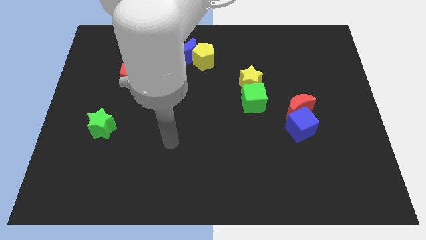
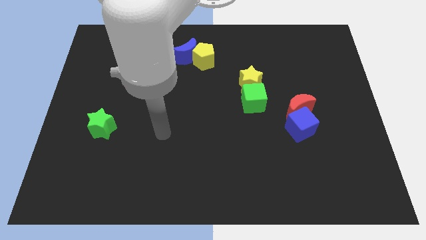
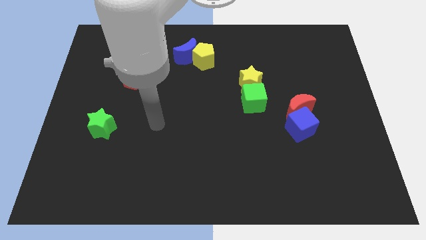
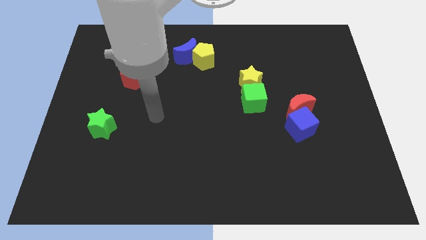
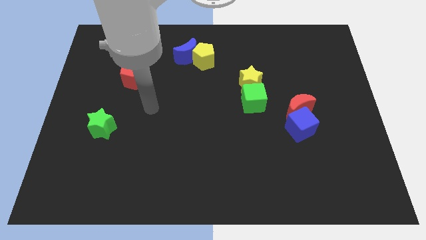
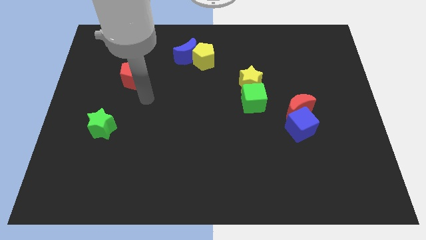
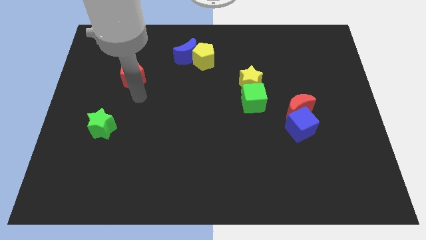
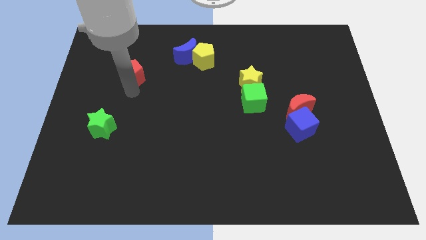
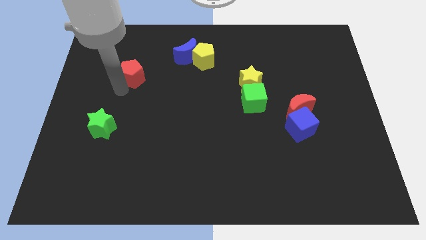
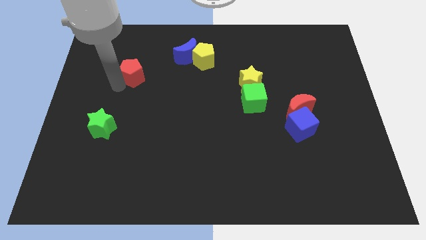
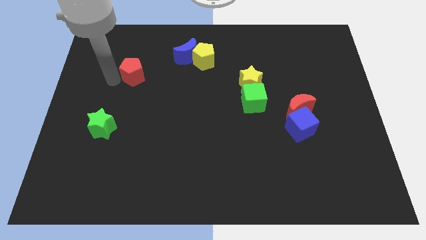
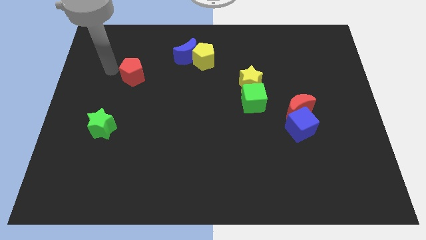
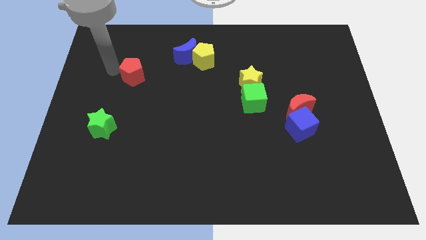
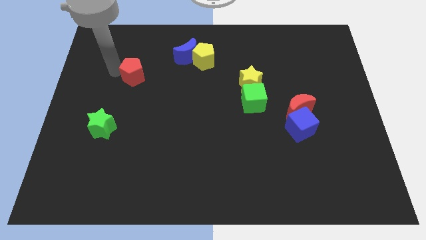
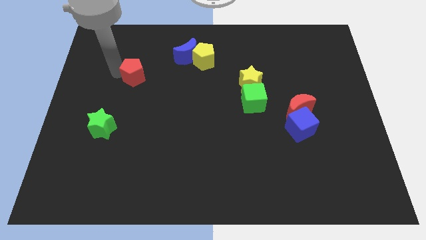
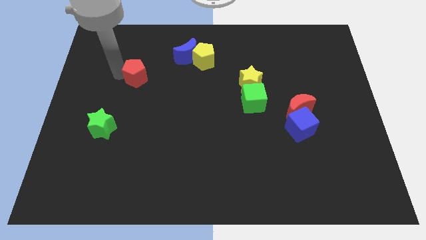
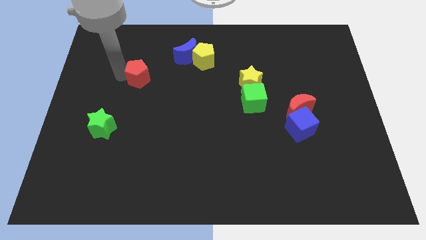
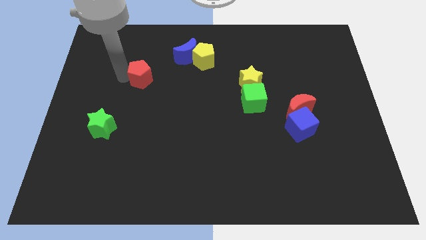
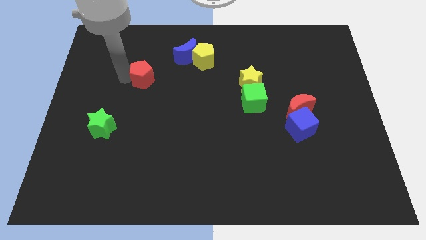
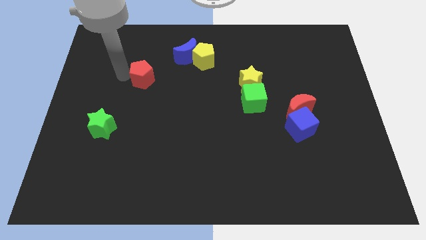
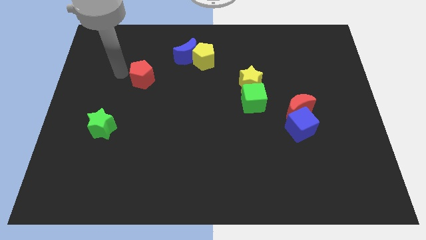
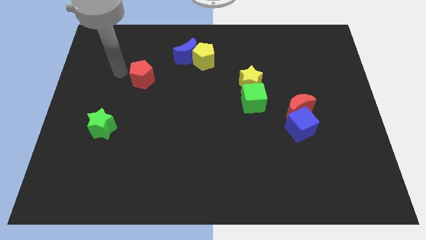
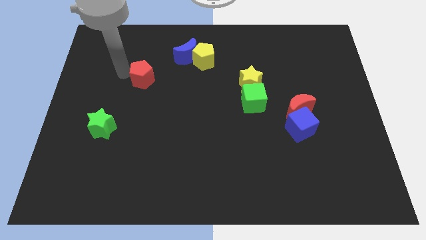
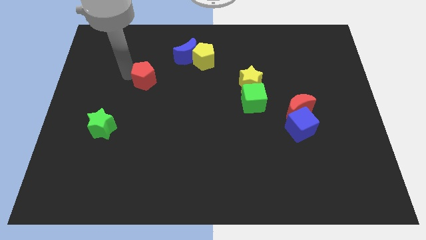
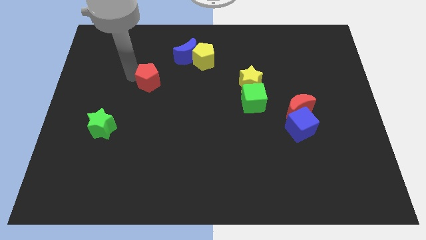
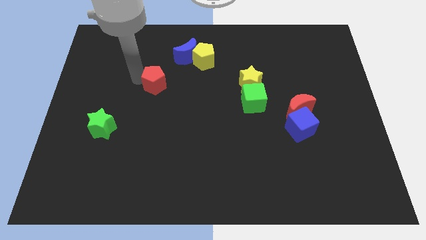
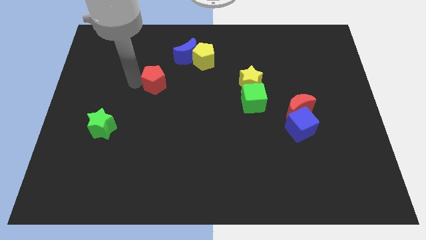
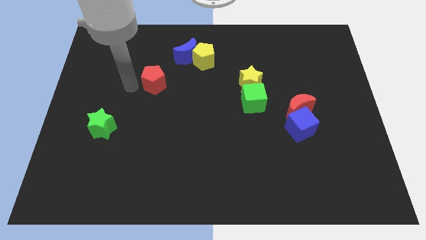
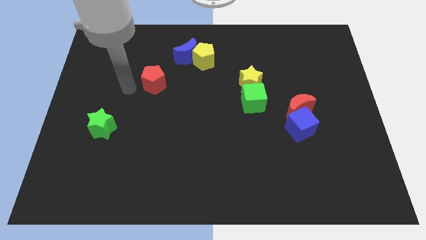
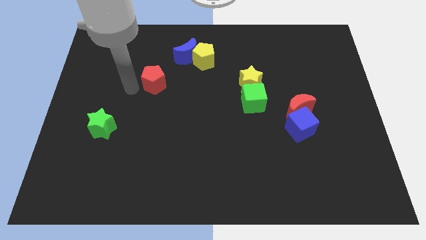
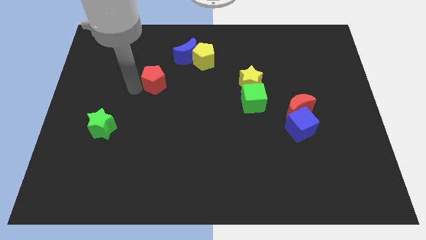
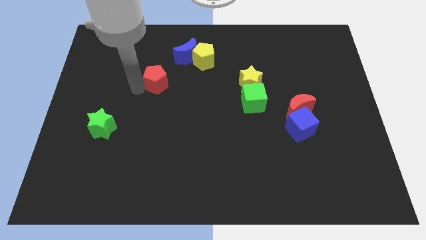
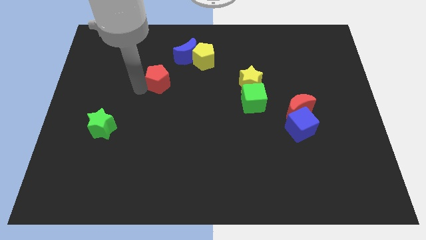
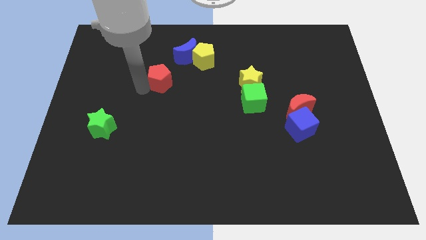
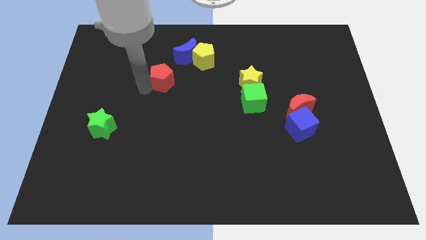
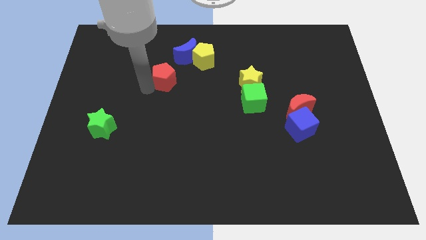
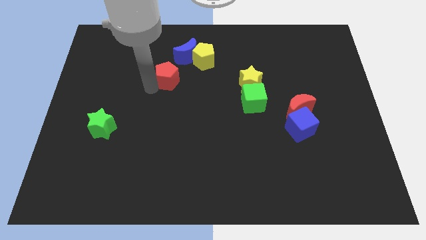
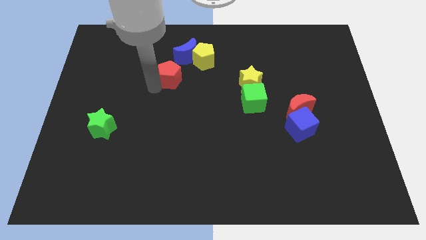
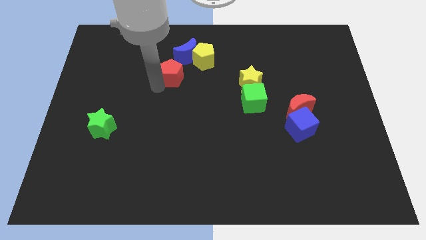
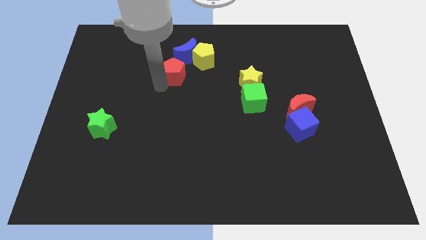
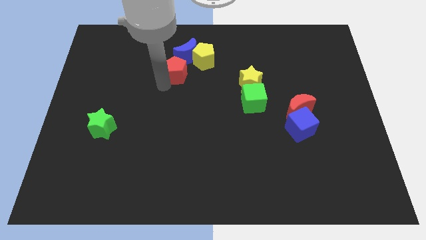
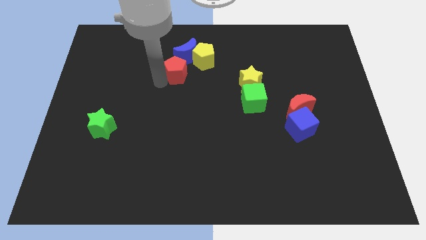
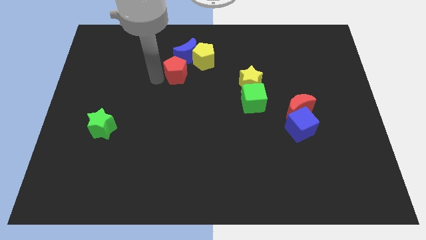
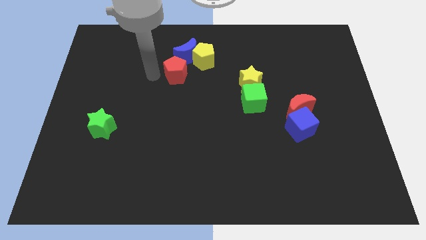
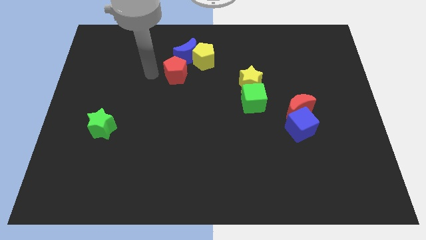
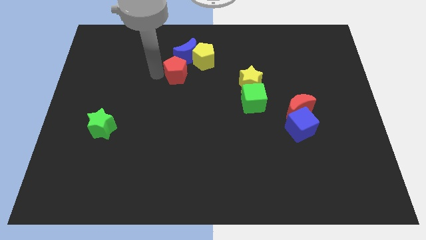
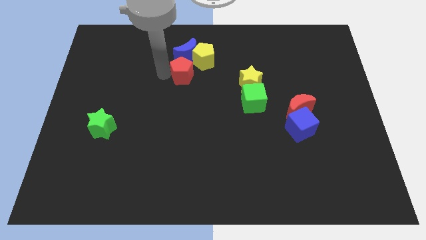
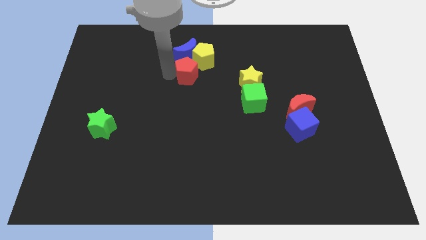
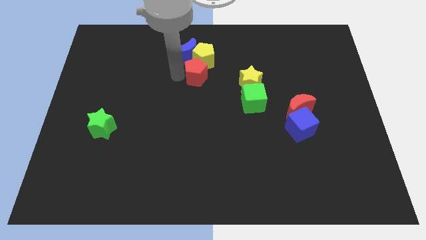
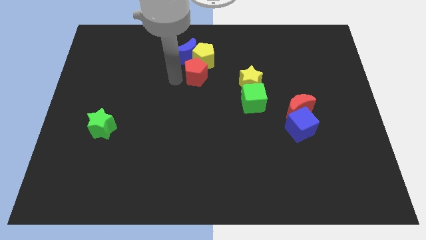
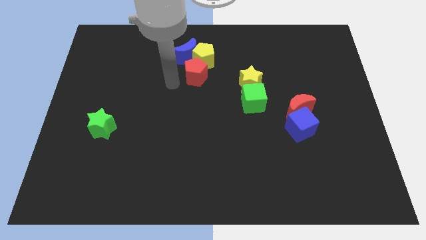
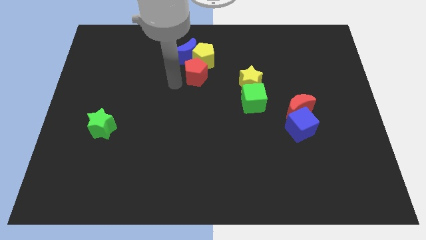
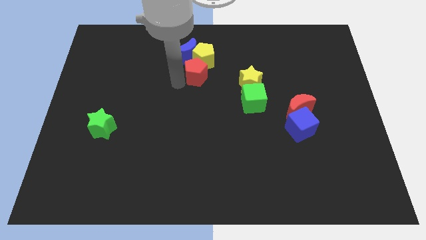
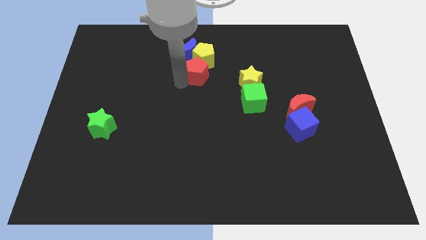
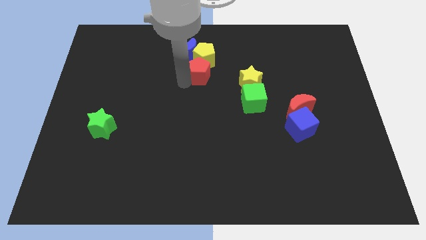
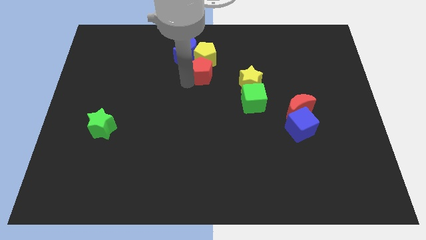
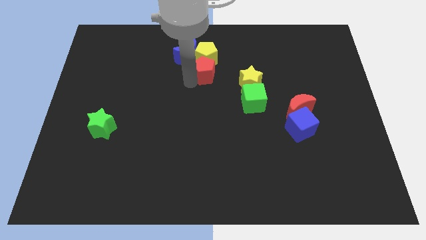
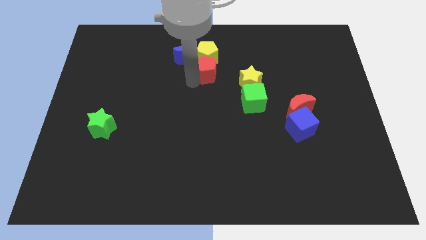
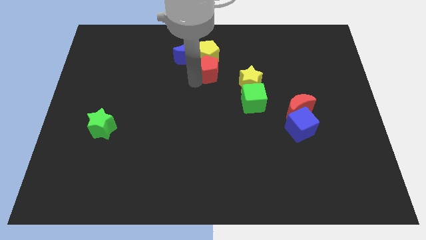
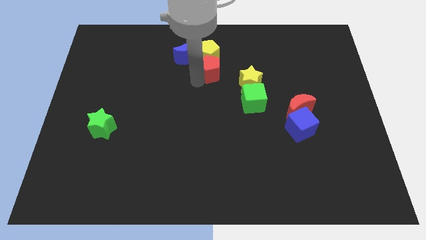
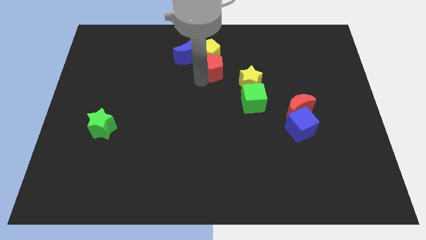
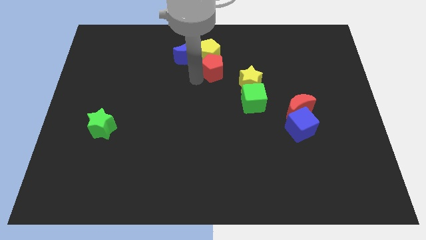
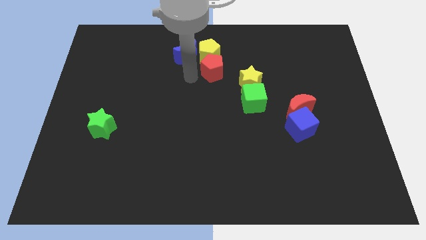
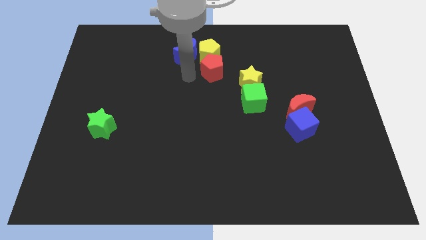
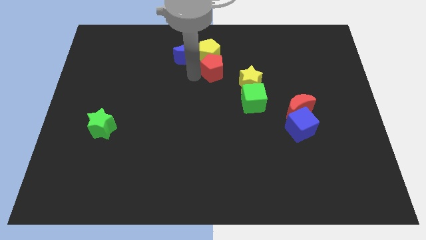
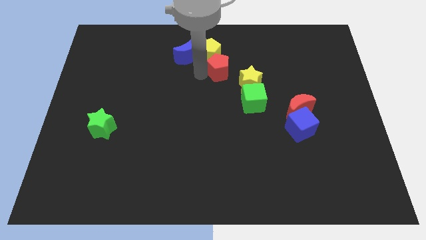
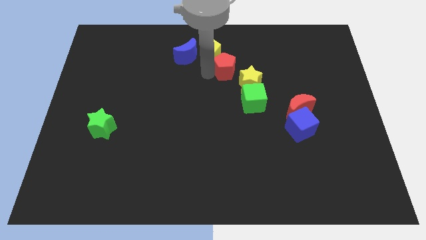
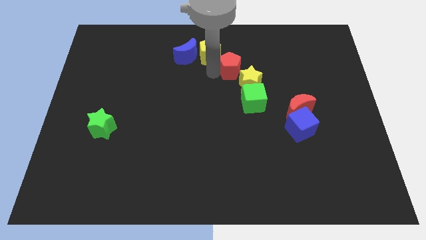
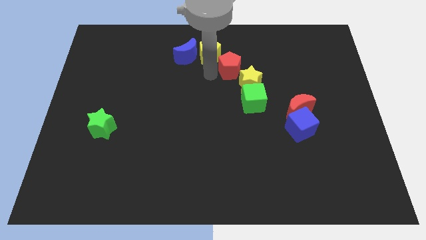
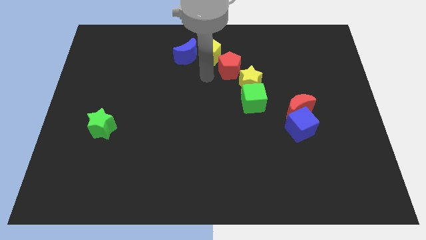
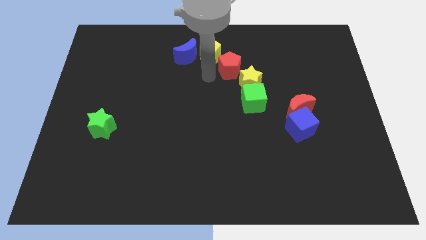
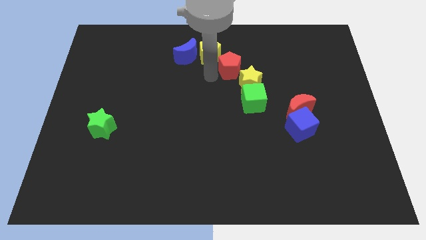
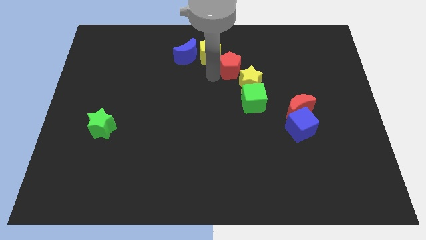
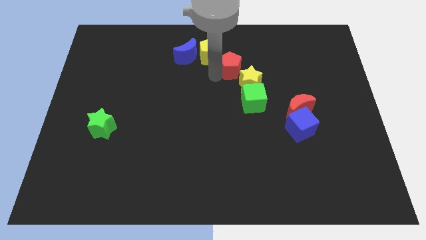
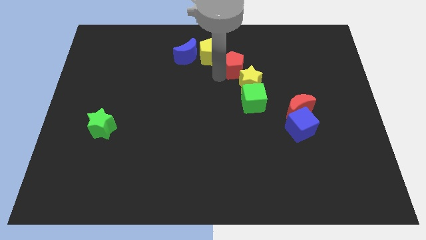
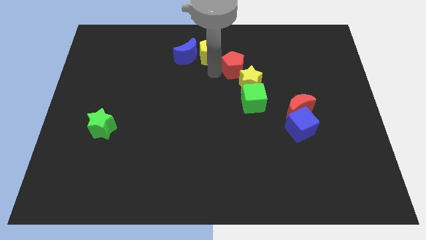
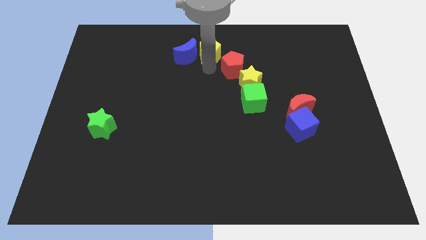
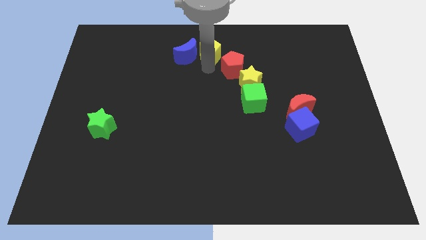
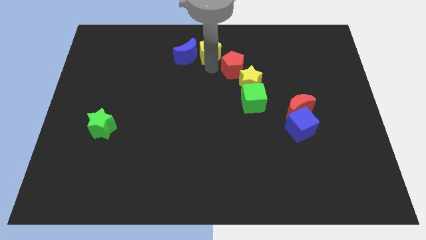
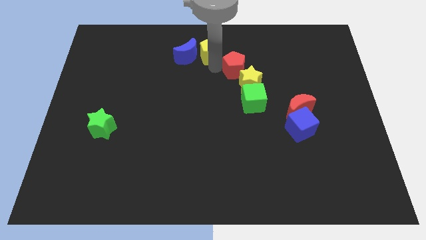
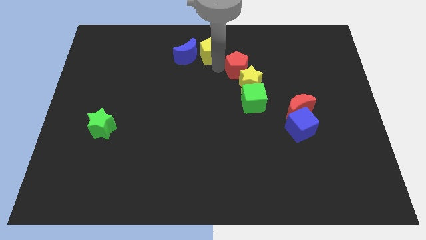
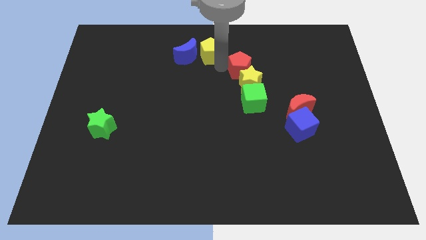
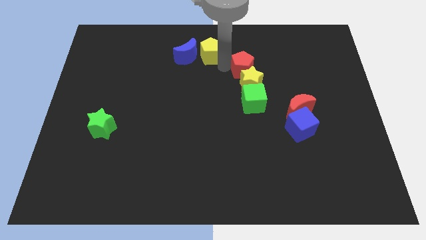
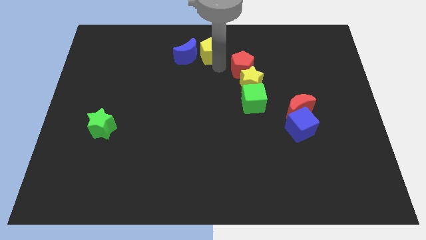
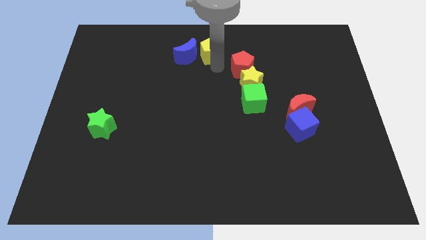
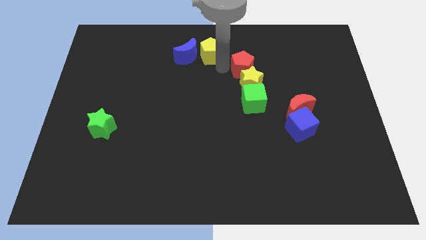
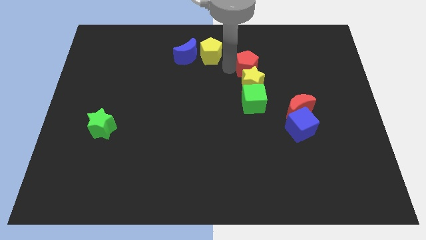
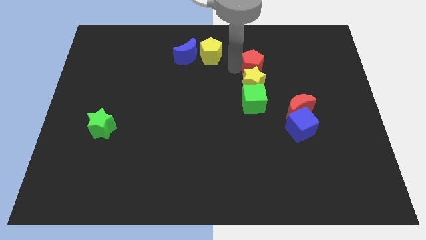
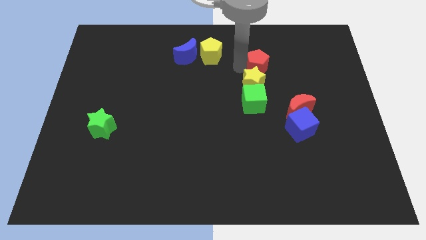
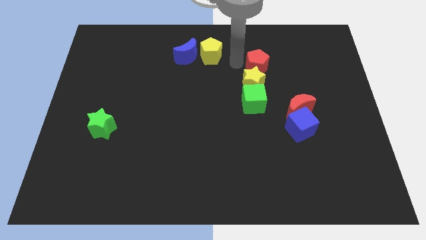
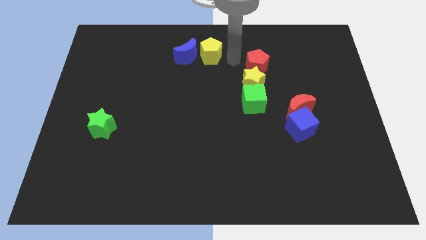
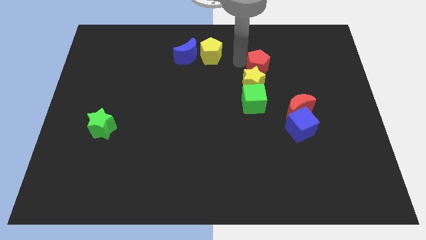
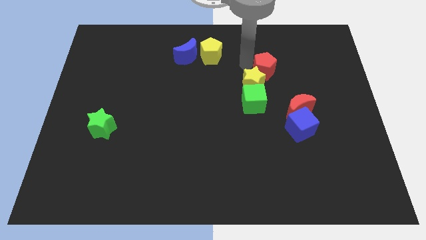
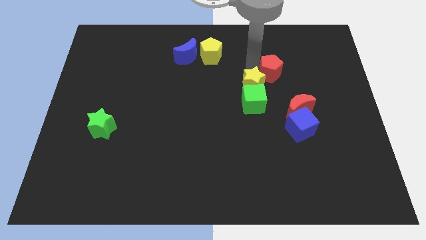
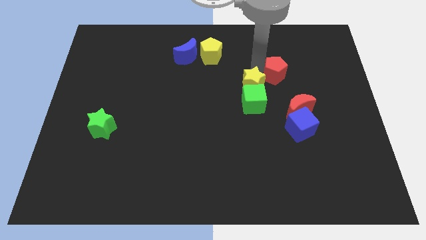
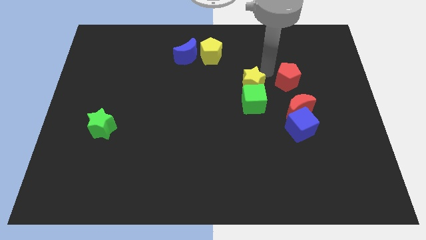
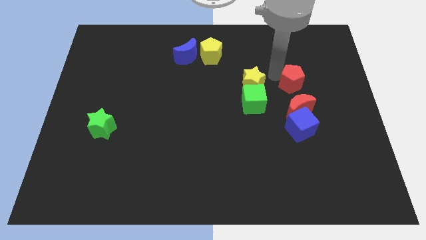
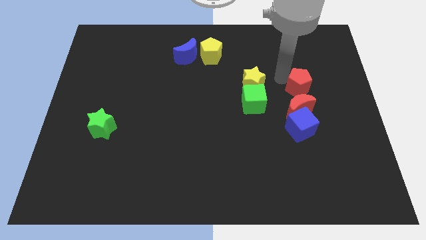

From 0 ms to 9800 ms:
move the red pentagon to the top right side of the red moon
